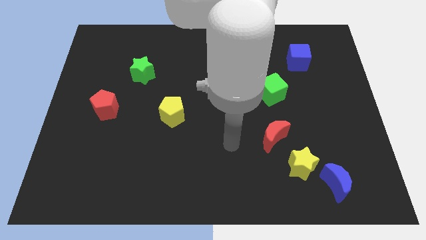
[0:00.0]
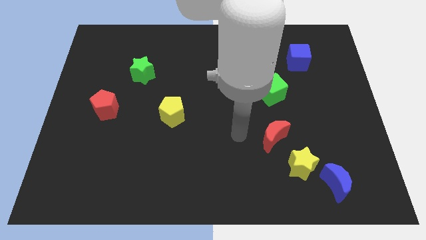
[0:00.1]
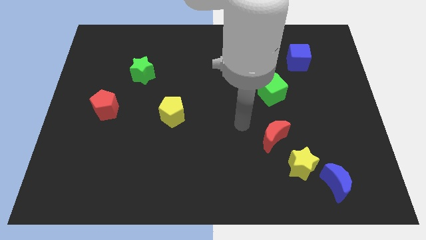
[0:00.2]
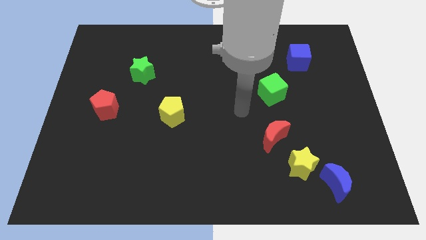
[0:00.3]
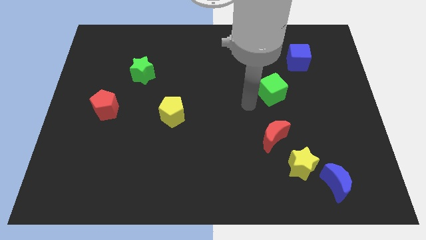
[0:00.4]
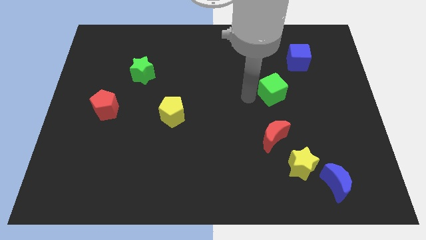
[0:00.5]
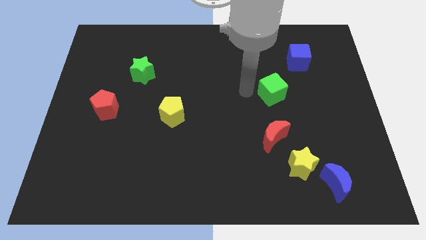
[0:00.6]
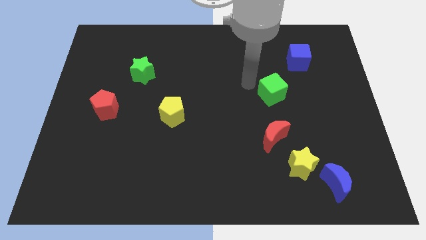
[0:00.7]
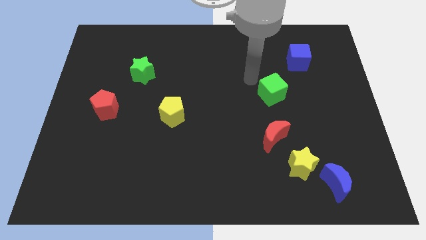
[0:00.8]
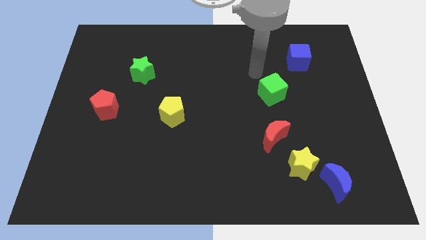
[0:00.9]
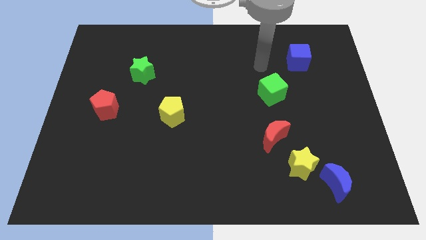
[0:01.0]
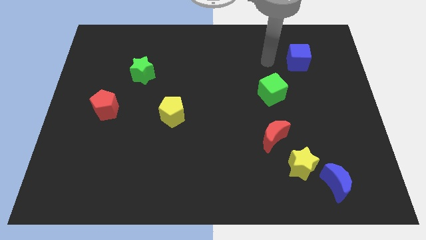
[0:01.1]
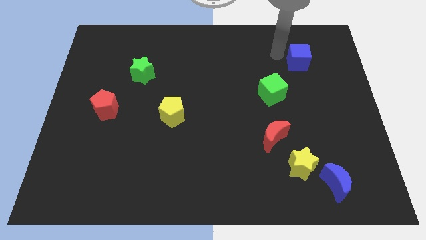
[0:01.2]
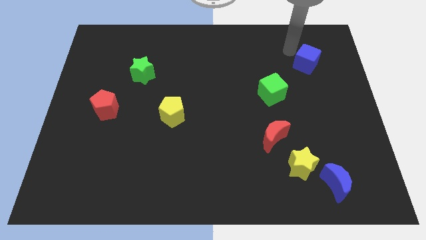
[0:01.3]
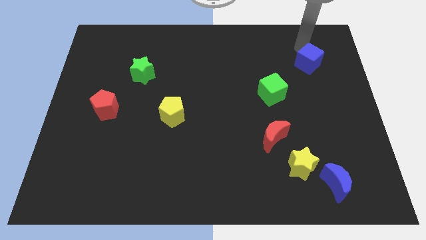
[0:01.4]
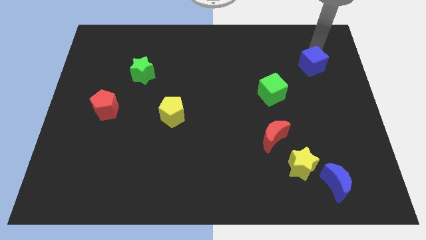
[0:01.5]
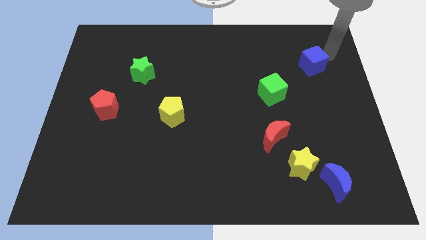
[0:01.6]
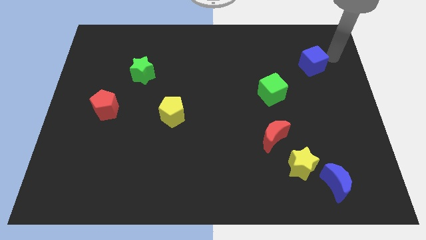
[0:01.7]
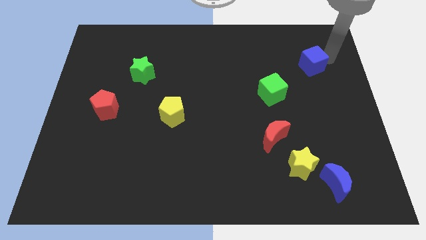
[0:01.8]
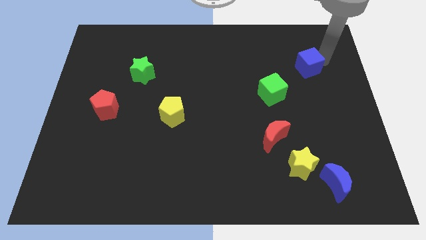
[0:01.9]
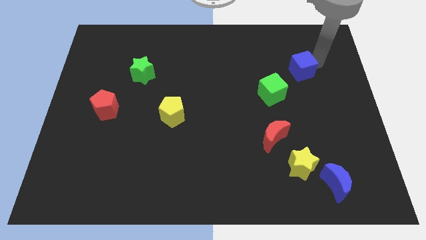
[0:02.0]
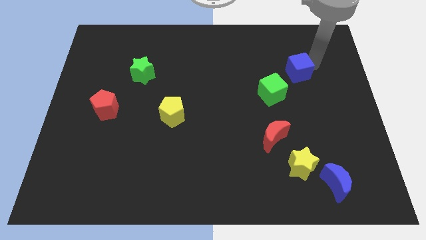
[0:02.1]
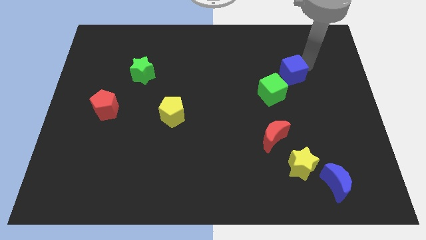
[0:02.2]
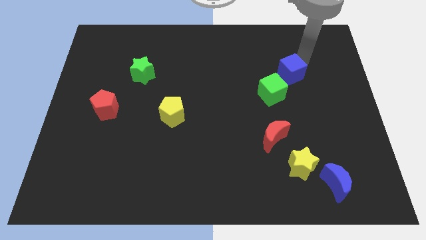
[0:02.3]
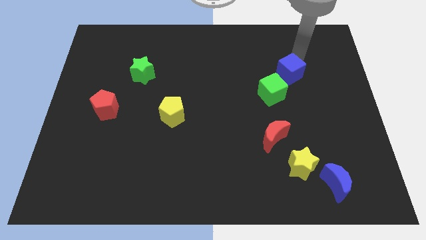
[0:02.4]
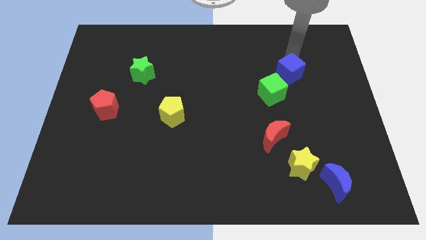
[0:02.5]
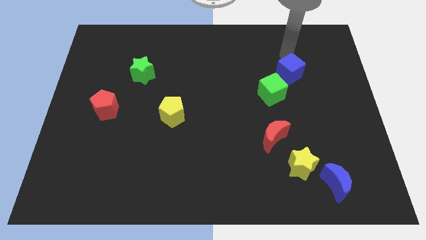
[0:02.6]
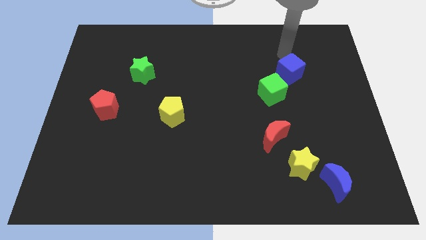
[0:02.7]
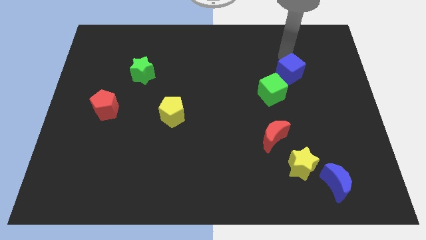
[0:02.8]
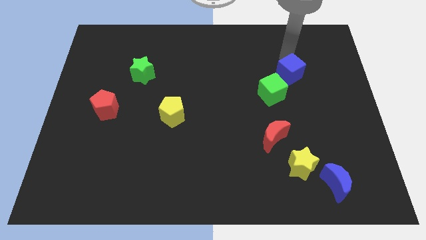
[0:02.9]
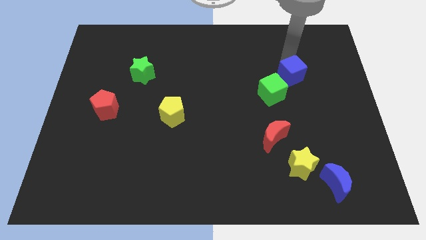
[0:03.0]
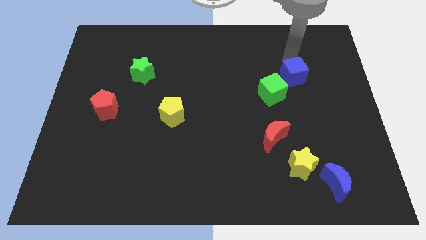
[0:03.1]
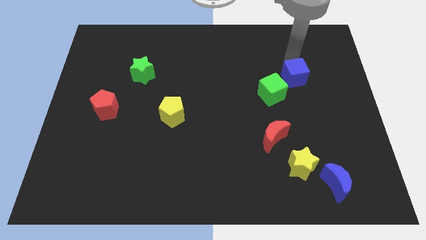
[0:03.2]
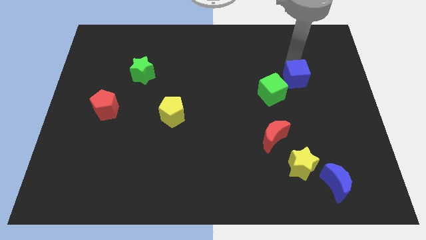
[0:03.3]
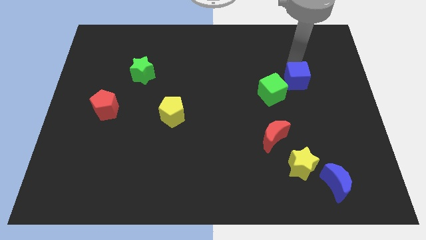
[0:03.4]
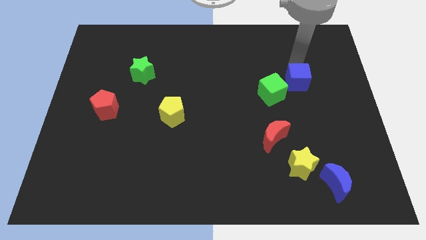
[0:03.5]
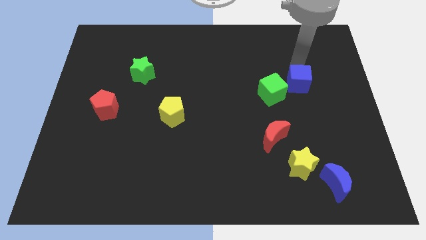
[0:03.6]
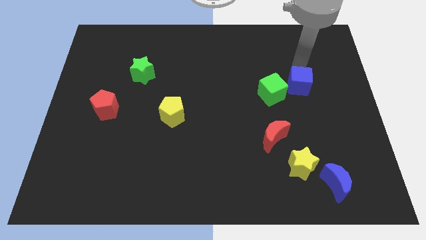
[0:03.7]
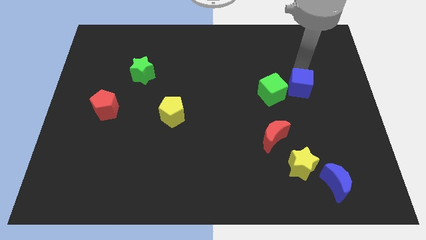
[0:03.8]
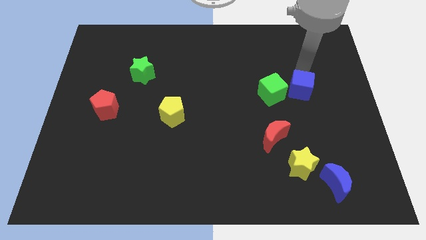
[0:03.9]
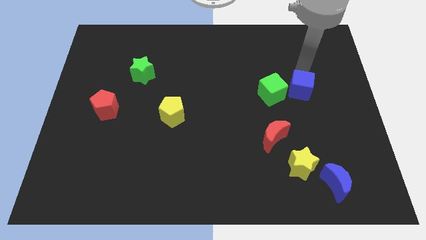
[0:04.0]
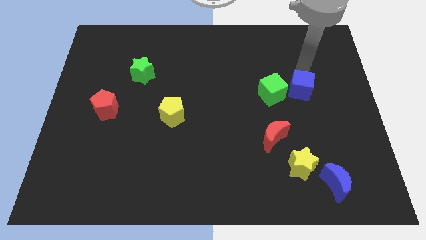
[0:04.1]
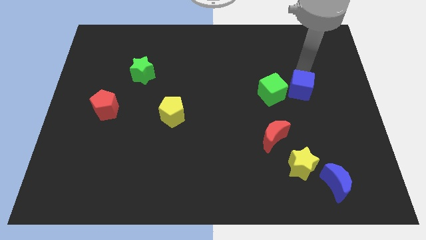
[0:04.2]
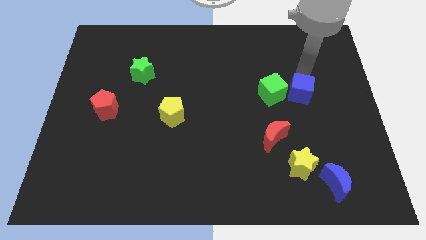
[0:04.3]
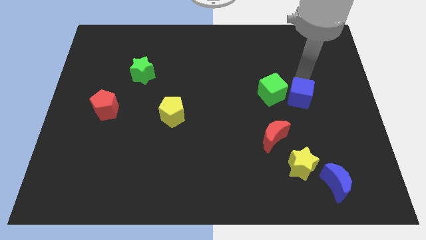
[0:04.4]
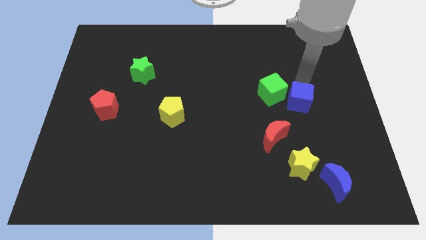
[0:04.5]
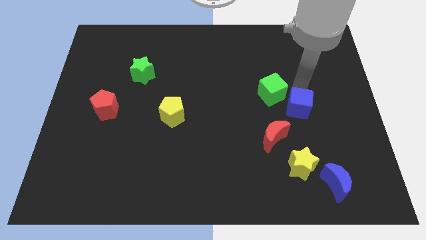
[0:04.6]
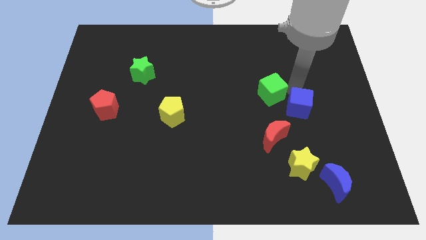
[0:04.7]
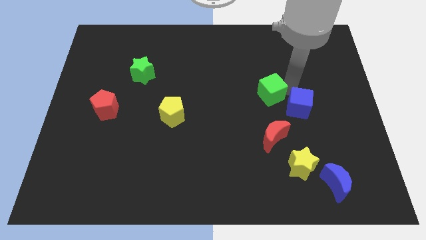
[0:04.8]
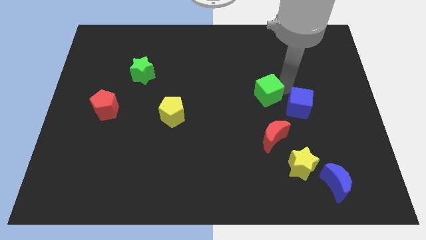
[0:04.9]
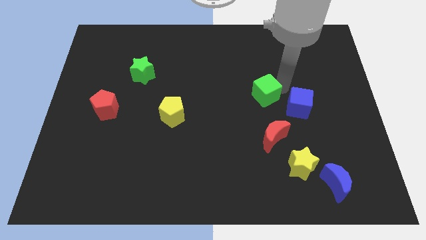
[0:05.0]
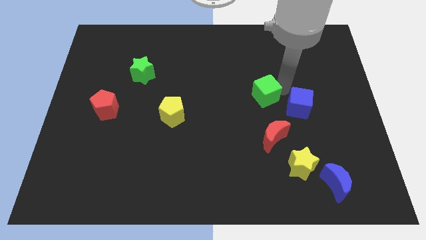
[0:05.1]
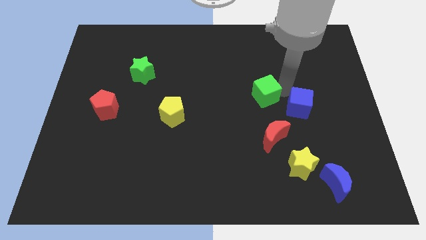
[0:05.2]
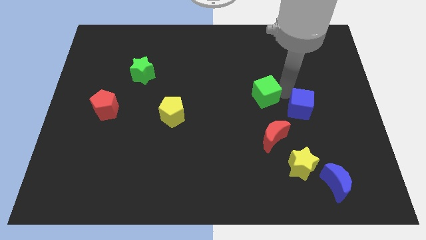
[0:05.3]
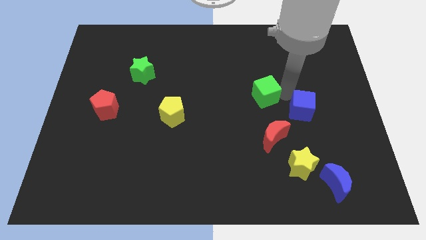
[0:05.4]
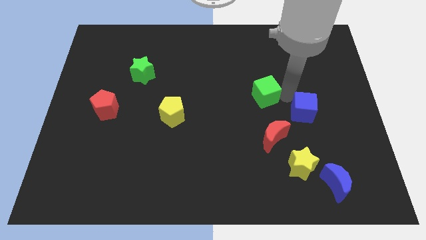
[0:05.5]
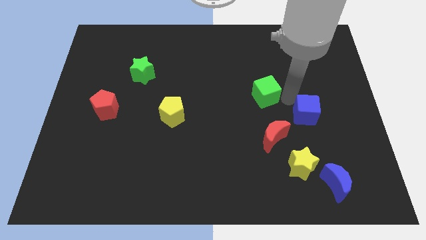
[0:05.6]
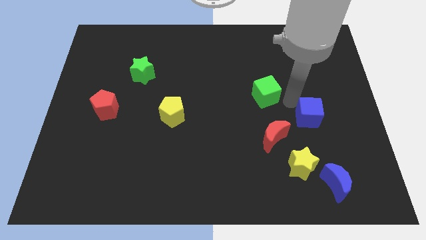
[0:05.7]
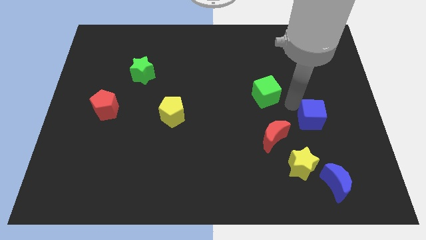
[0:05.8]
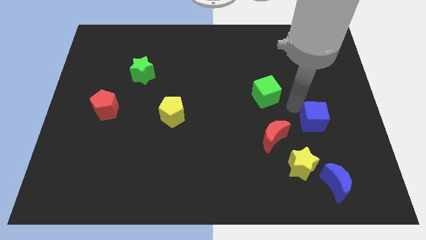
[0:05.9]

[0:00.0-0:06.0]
slide the blue cube above the blue moon

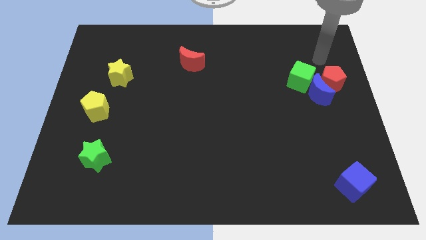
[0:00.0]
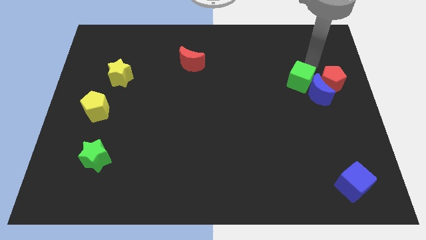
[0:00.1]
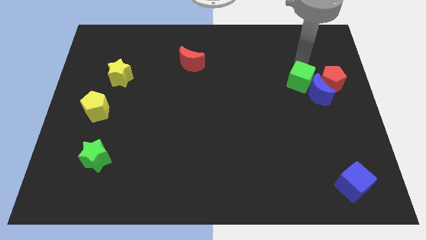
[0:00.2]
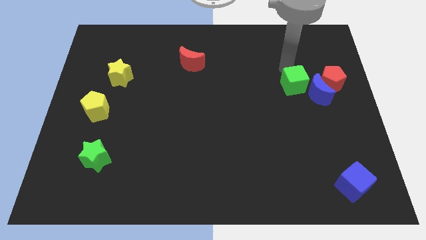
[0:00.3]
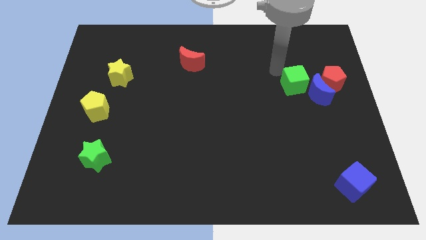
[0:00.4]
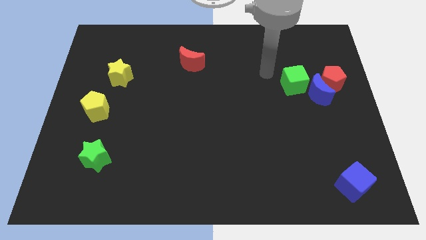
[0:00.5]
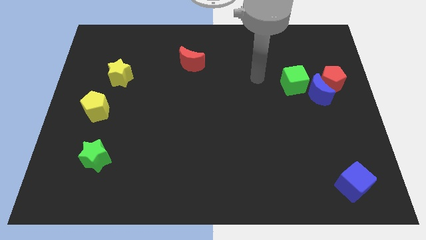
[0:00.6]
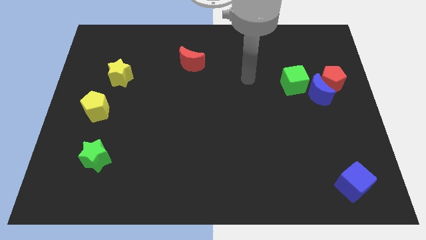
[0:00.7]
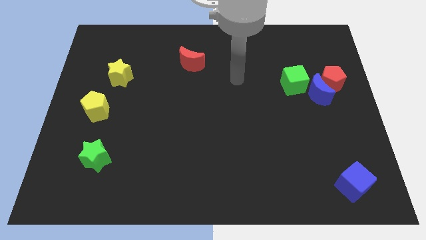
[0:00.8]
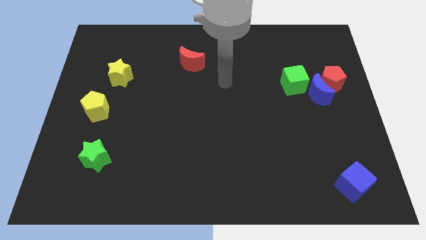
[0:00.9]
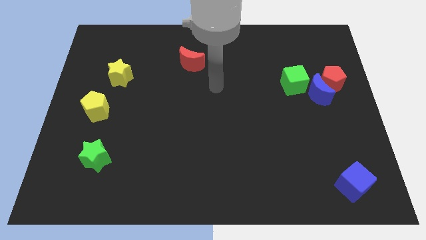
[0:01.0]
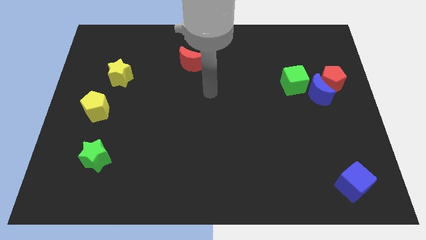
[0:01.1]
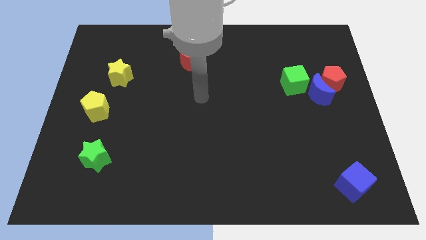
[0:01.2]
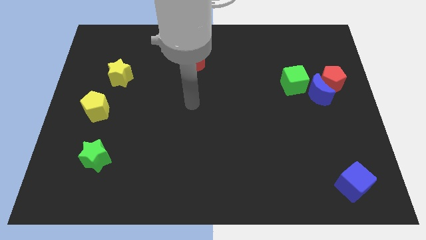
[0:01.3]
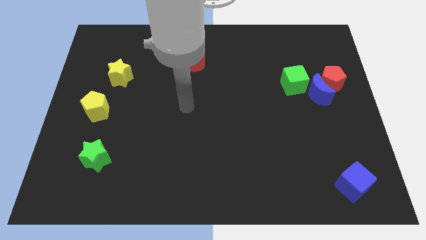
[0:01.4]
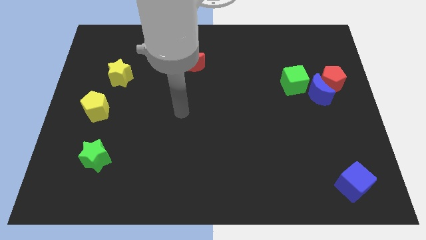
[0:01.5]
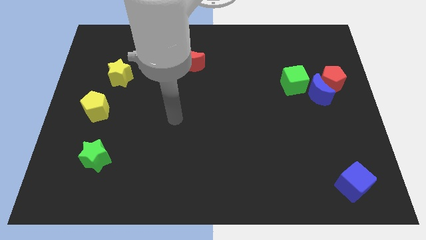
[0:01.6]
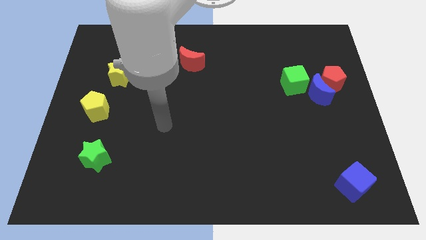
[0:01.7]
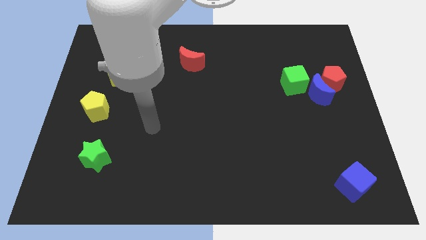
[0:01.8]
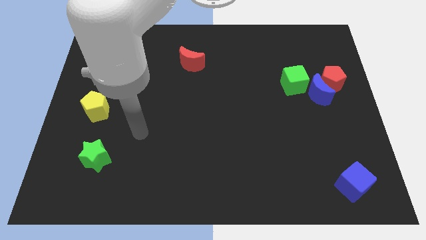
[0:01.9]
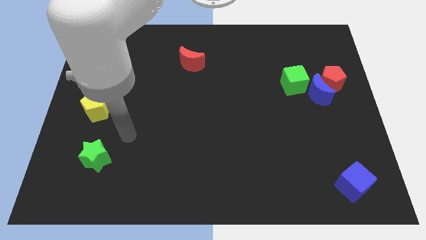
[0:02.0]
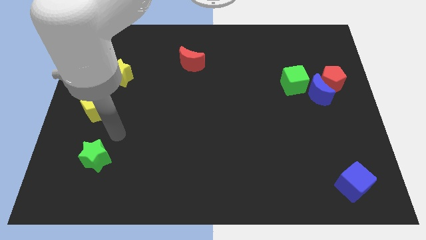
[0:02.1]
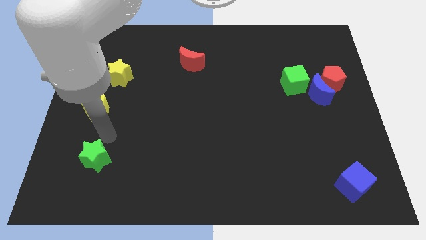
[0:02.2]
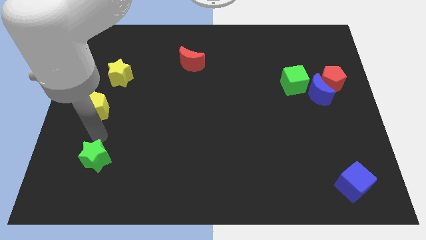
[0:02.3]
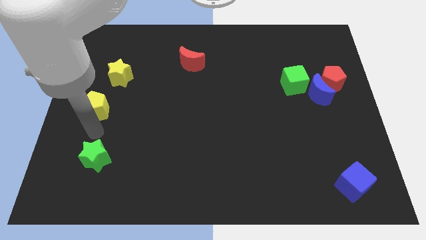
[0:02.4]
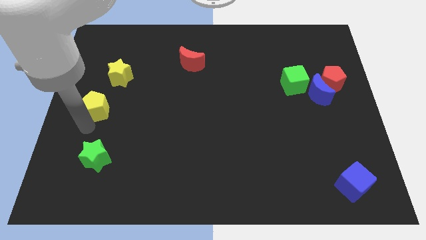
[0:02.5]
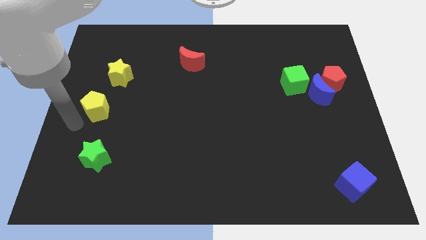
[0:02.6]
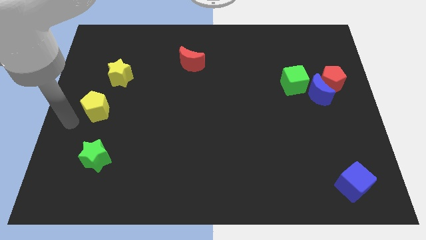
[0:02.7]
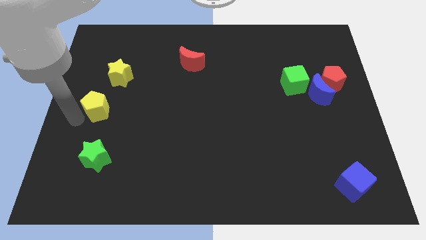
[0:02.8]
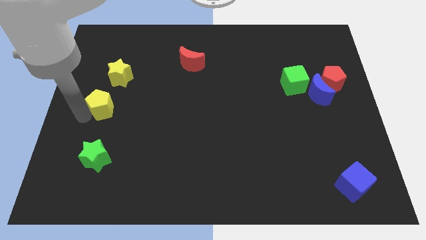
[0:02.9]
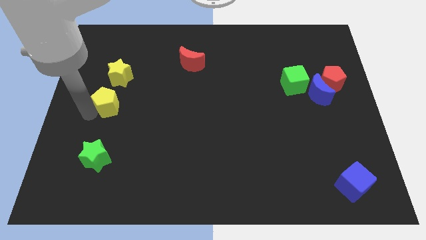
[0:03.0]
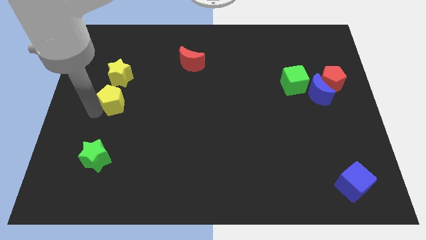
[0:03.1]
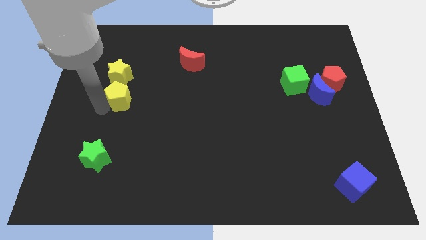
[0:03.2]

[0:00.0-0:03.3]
move the yellow pentagon diagonally down and to the right of the yellow star
